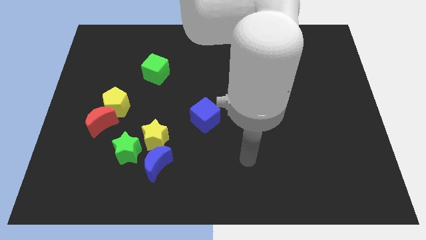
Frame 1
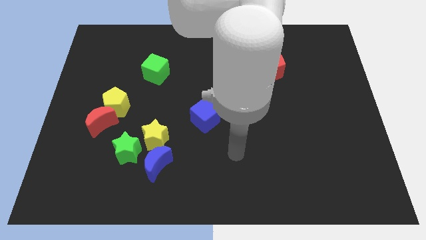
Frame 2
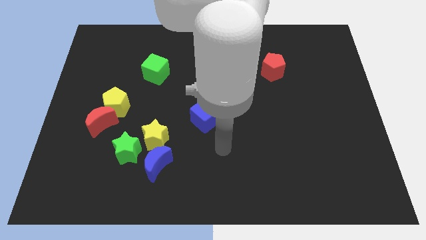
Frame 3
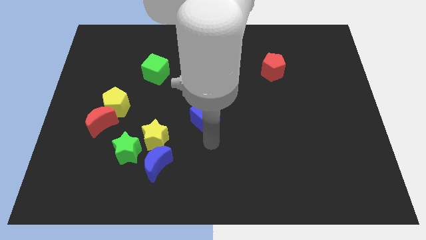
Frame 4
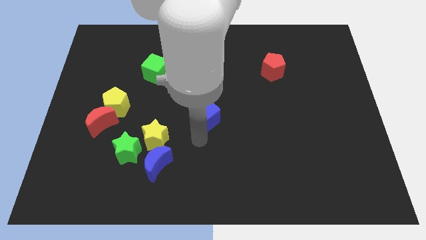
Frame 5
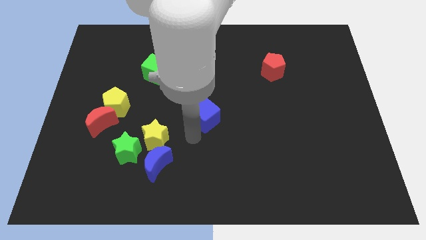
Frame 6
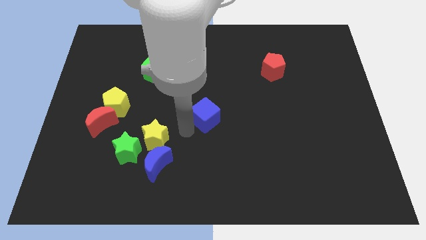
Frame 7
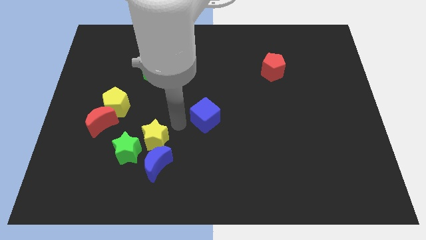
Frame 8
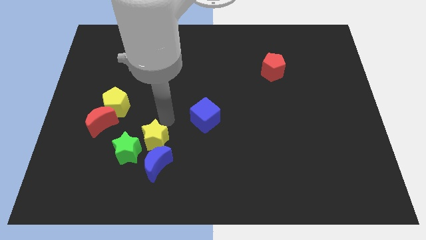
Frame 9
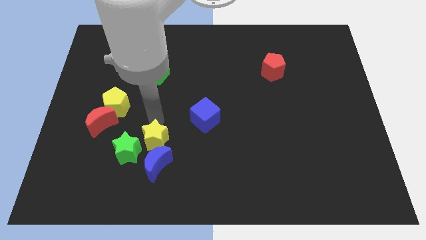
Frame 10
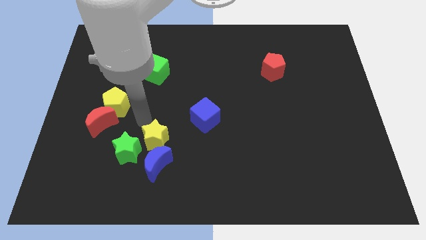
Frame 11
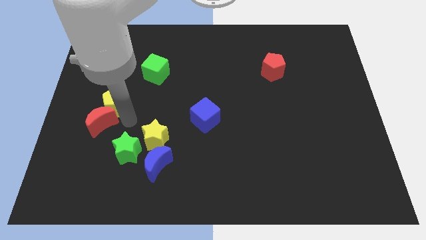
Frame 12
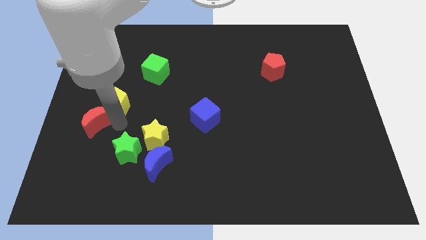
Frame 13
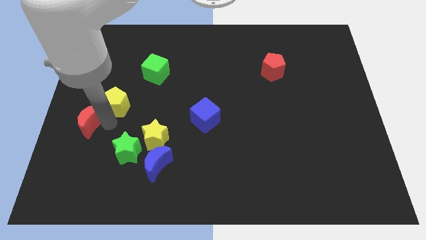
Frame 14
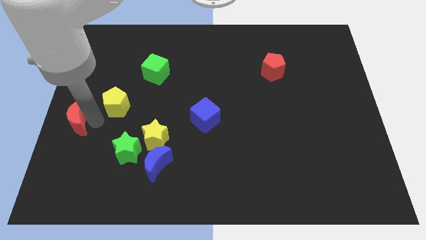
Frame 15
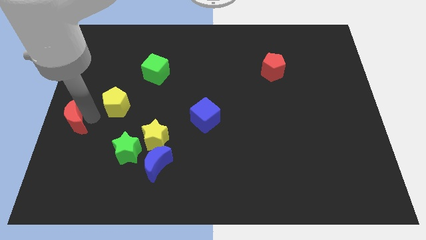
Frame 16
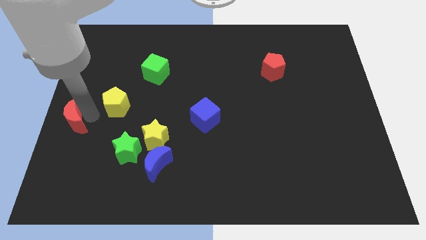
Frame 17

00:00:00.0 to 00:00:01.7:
separate the yellow pentagon from the red moon

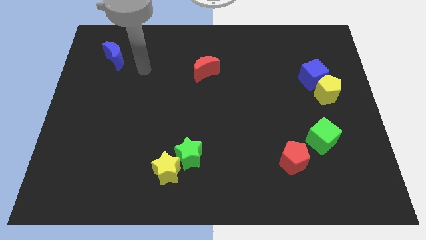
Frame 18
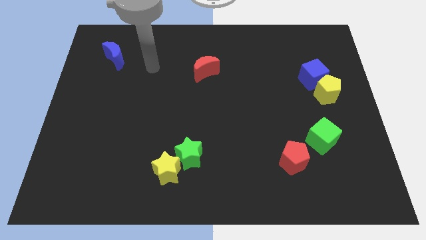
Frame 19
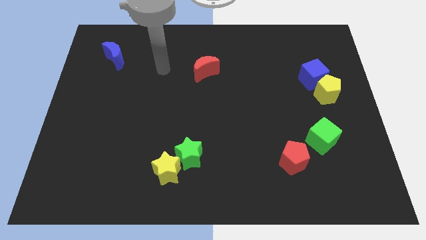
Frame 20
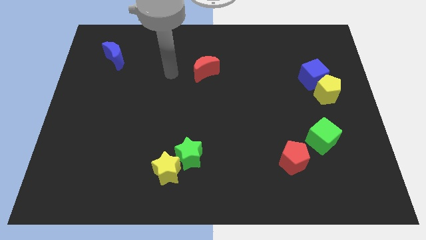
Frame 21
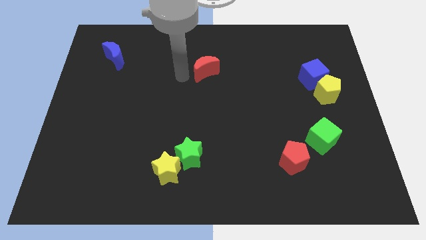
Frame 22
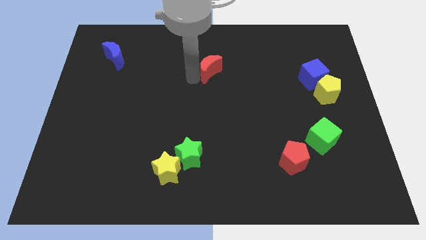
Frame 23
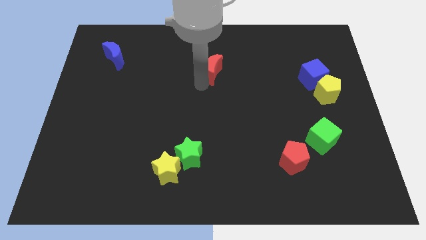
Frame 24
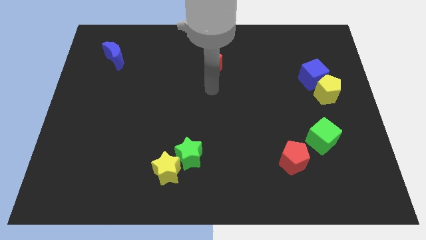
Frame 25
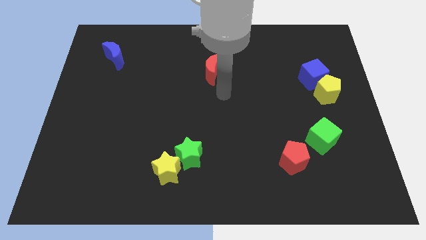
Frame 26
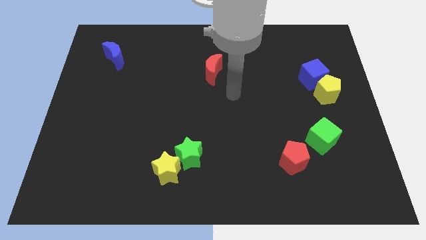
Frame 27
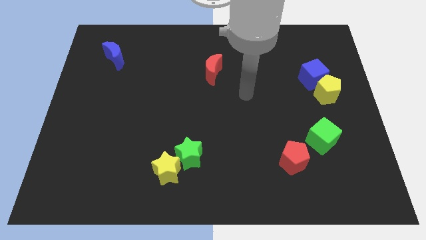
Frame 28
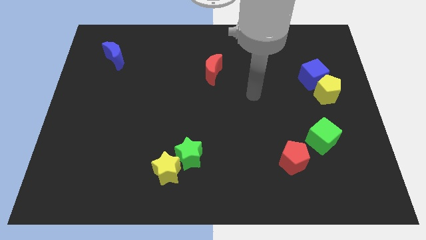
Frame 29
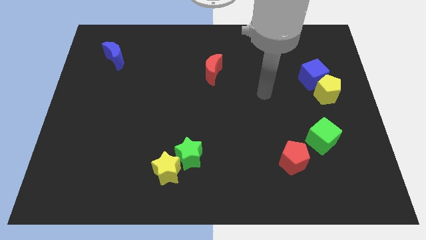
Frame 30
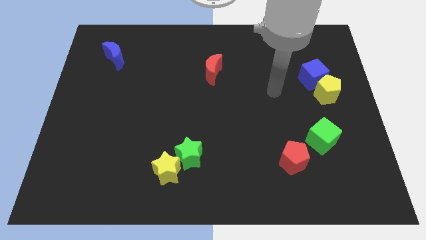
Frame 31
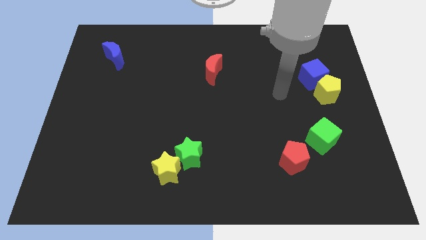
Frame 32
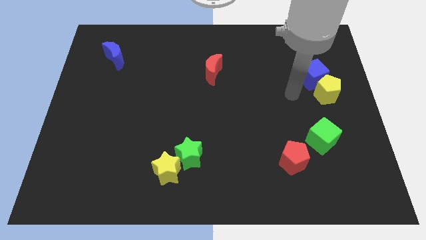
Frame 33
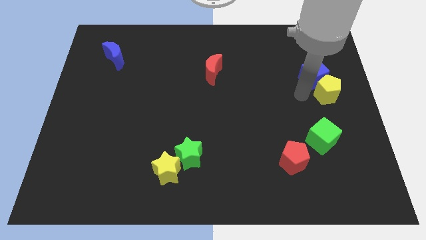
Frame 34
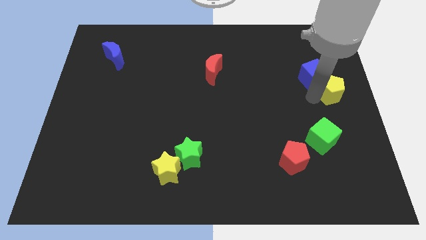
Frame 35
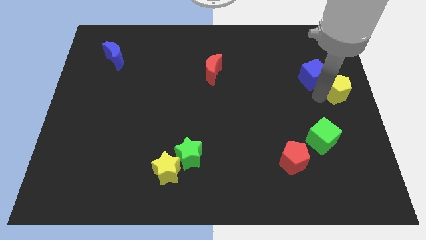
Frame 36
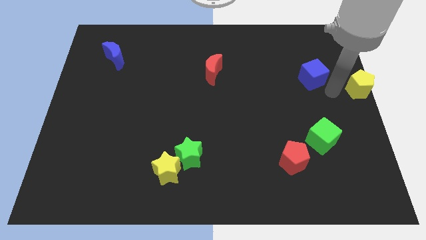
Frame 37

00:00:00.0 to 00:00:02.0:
pull the blue cube apart from the yellow pentagon

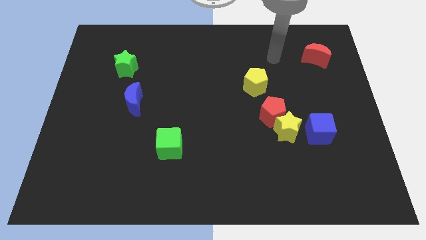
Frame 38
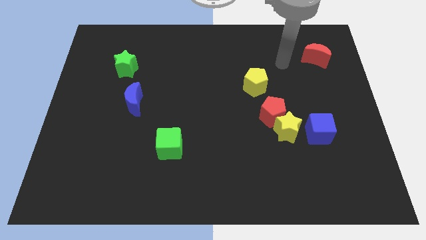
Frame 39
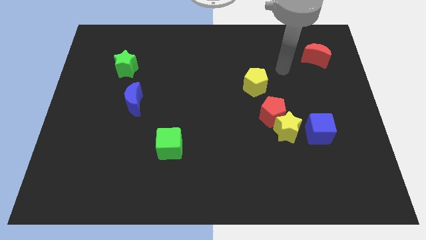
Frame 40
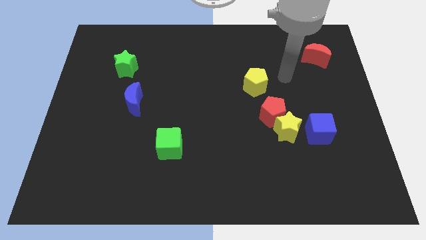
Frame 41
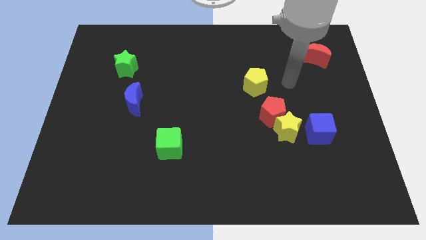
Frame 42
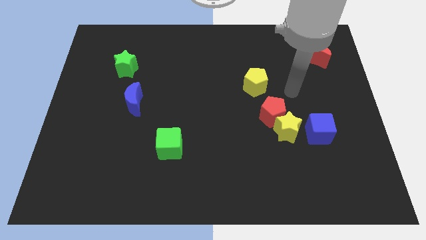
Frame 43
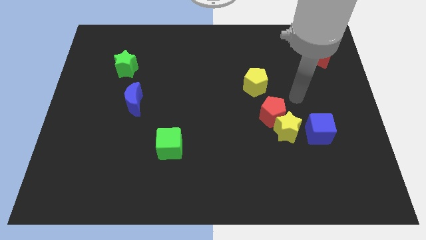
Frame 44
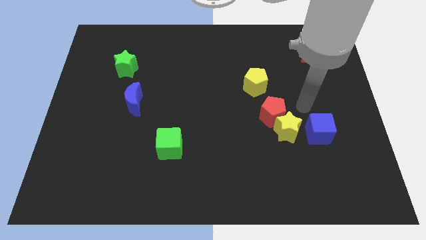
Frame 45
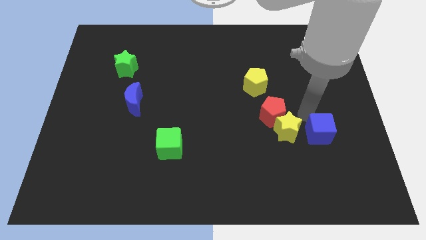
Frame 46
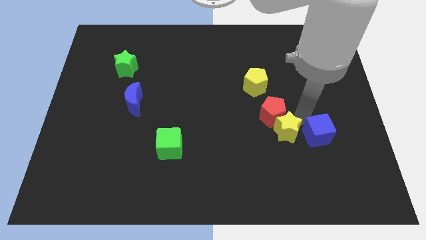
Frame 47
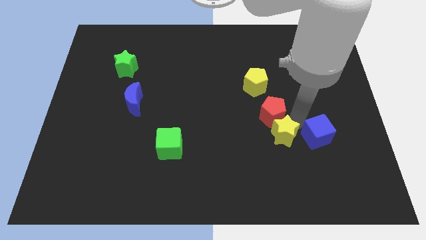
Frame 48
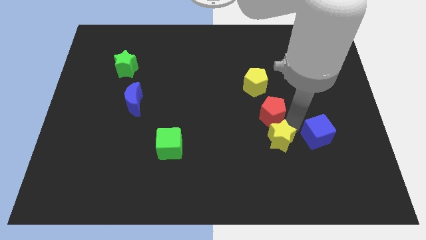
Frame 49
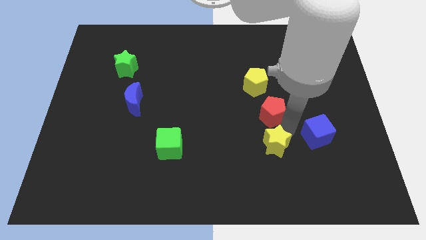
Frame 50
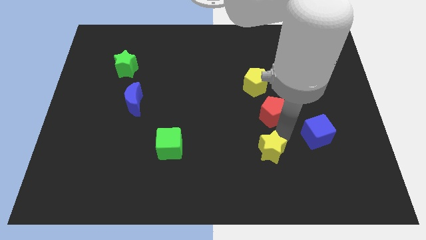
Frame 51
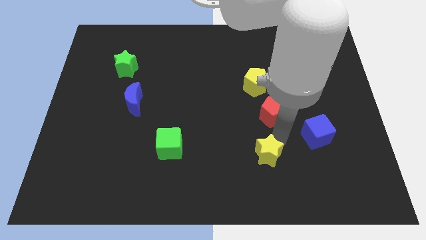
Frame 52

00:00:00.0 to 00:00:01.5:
pull the yellow star apart from the red pentagon and blue cube

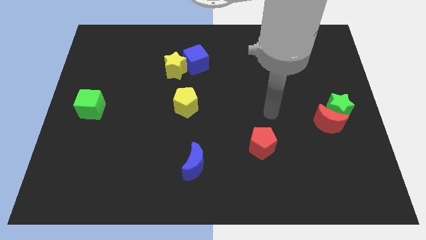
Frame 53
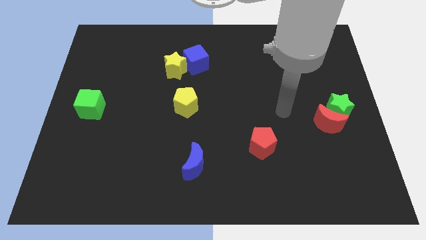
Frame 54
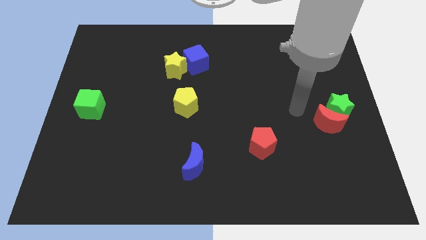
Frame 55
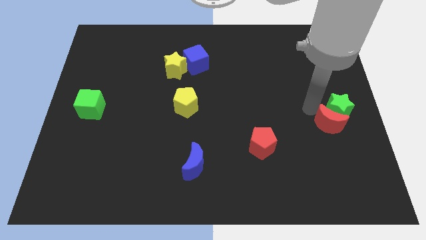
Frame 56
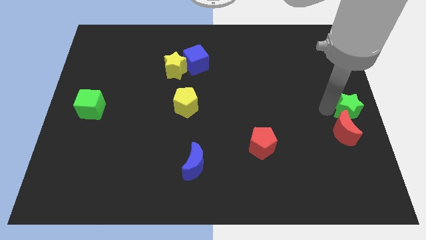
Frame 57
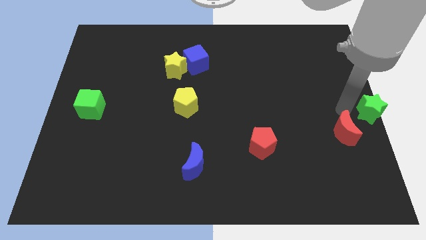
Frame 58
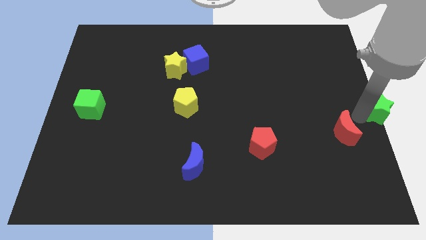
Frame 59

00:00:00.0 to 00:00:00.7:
separate the red moon from the green star

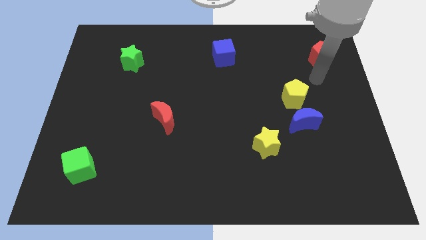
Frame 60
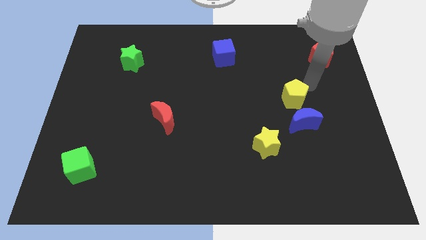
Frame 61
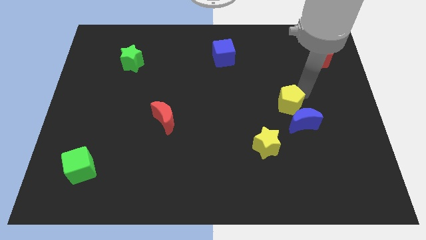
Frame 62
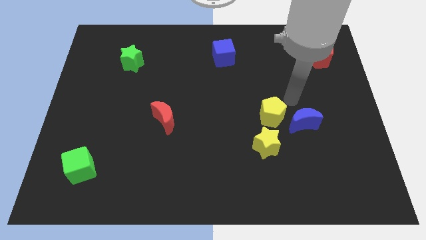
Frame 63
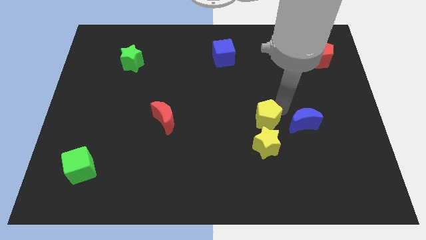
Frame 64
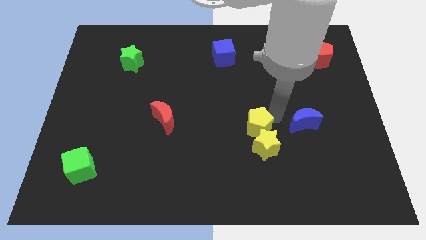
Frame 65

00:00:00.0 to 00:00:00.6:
move the blue moon away from the yellow pentagon

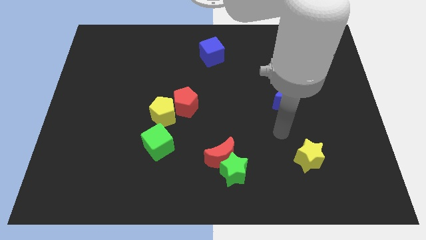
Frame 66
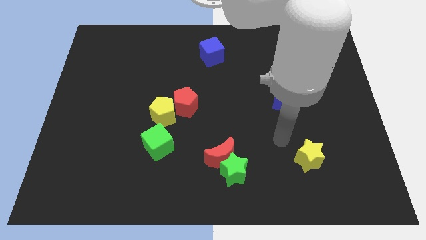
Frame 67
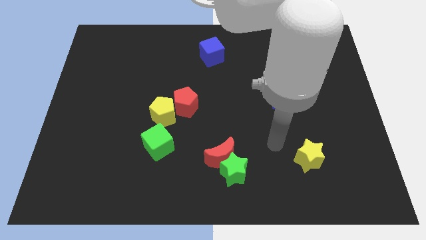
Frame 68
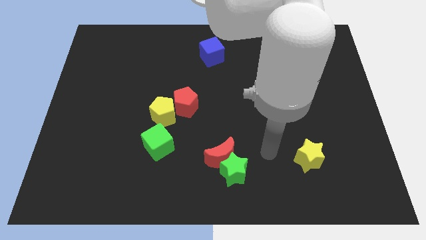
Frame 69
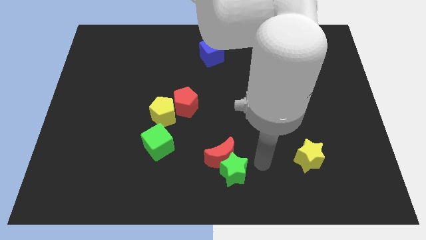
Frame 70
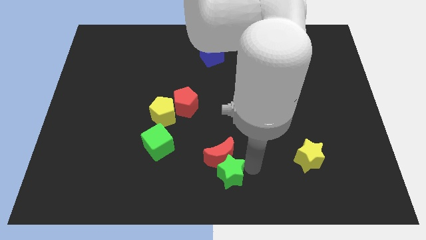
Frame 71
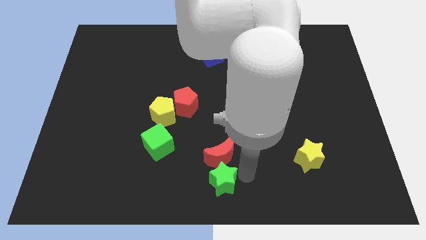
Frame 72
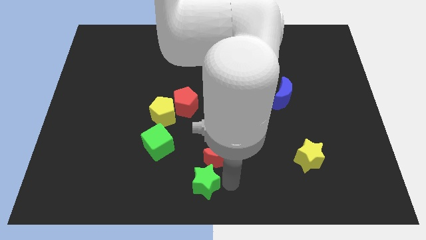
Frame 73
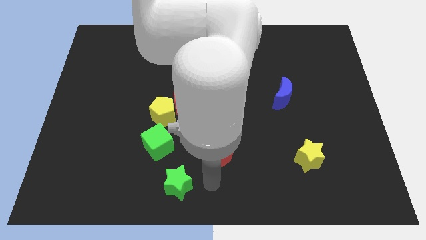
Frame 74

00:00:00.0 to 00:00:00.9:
move the red moon away from the green star

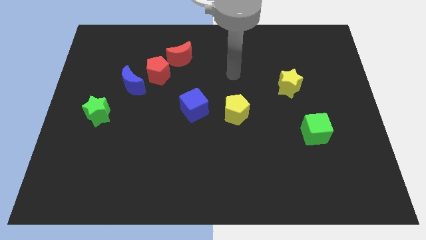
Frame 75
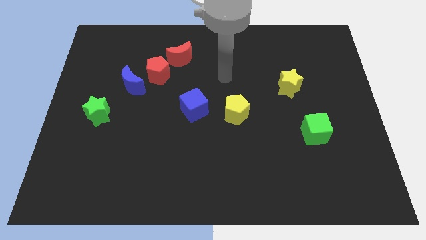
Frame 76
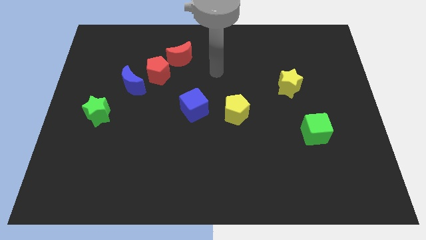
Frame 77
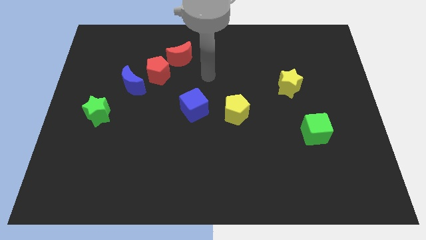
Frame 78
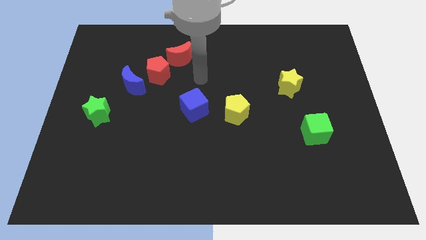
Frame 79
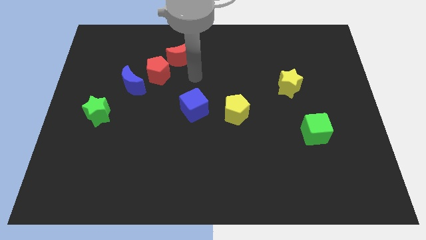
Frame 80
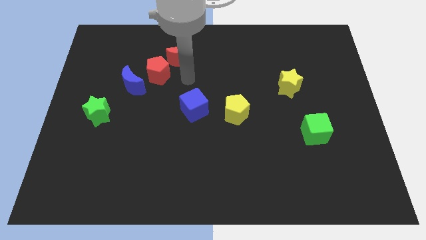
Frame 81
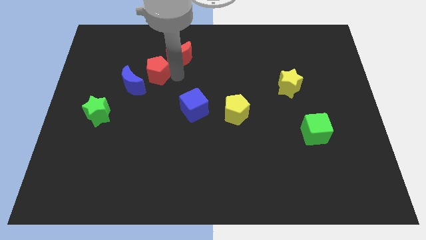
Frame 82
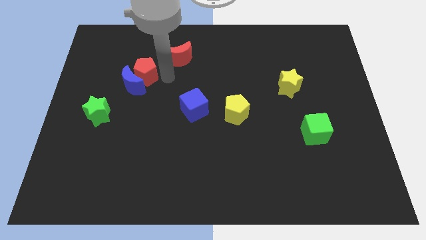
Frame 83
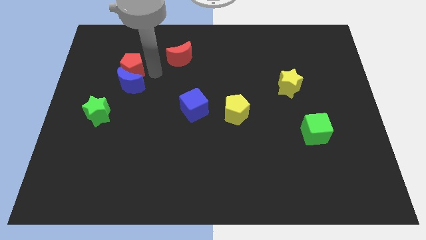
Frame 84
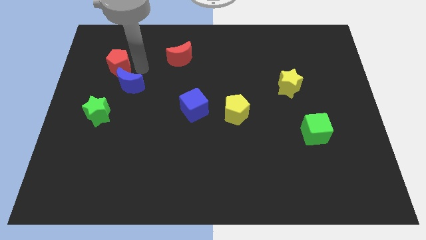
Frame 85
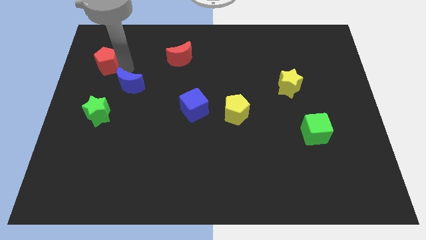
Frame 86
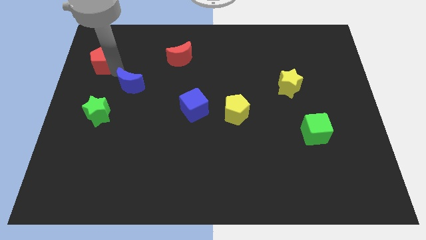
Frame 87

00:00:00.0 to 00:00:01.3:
move the blue moon away from the red pentagon

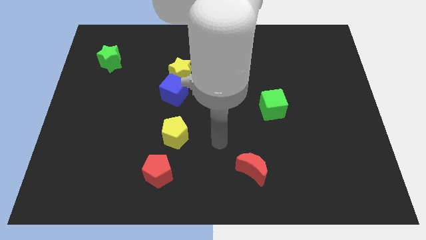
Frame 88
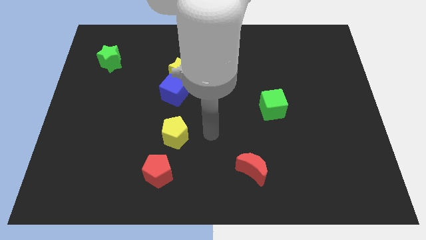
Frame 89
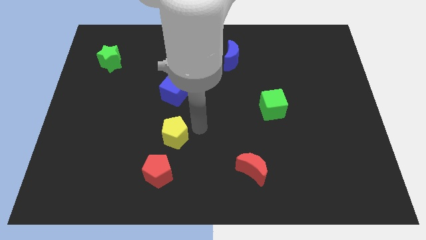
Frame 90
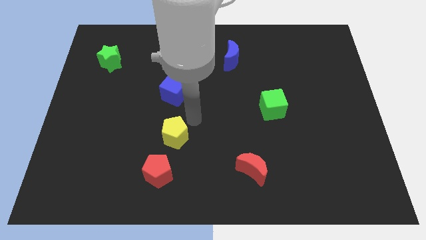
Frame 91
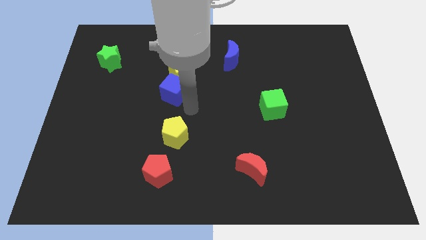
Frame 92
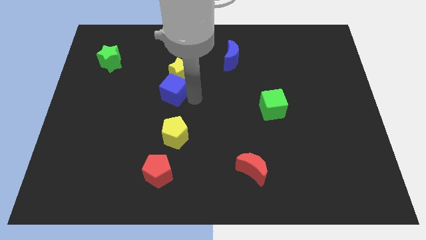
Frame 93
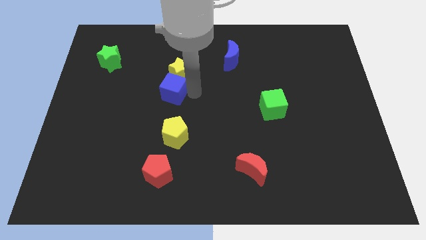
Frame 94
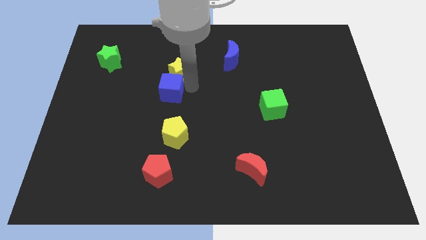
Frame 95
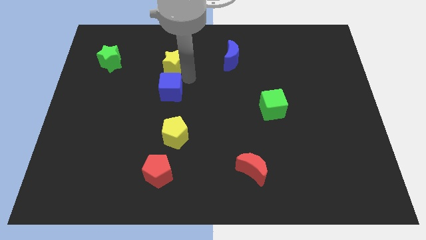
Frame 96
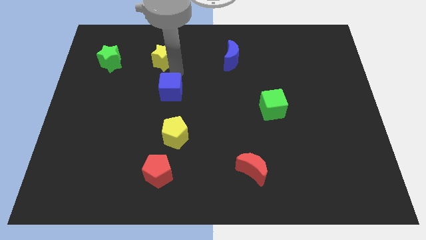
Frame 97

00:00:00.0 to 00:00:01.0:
move the blue cube away from the yellow star
